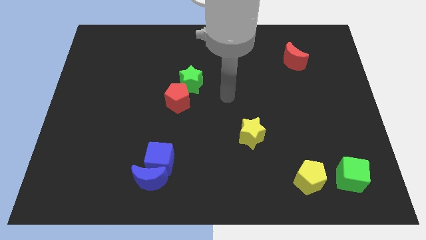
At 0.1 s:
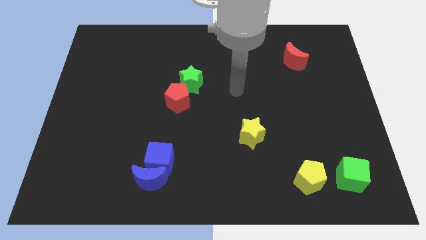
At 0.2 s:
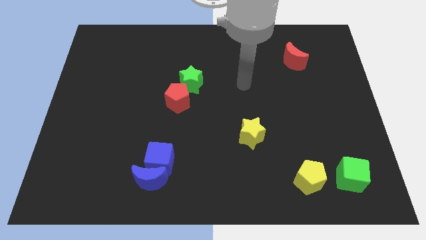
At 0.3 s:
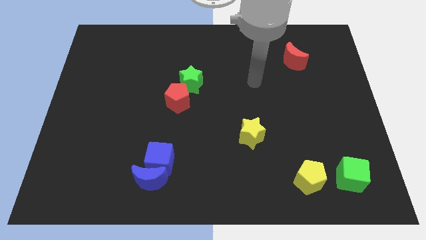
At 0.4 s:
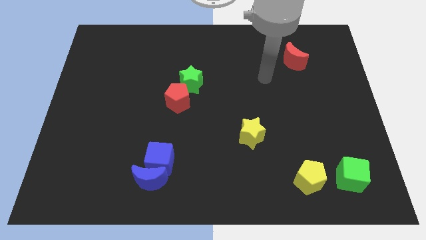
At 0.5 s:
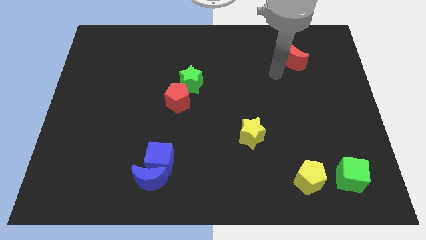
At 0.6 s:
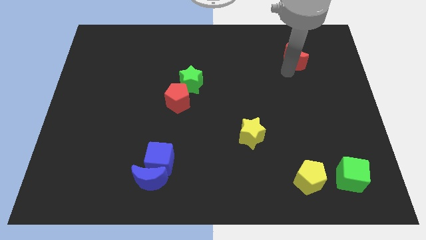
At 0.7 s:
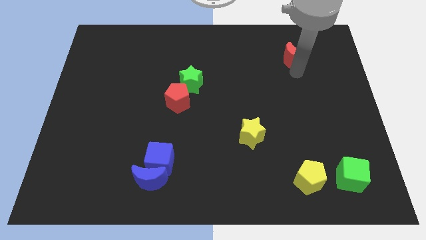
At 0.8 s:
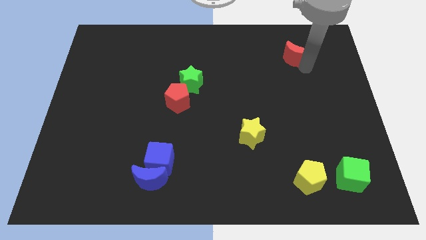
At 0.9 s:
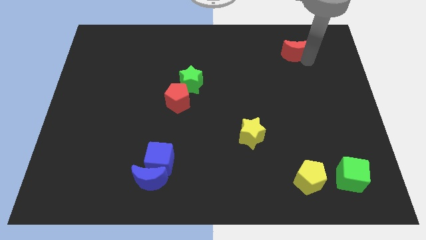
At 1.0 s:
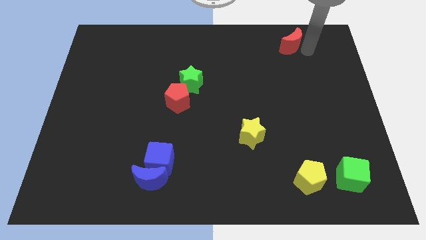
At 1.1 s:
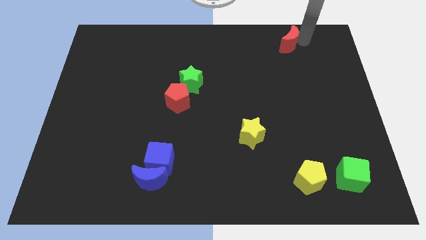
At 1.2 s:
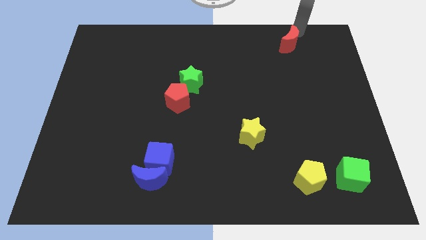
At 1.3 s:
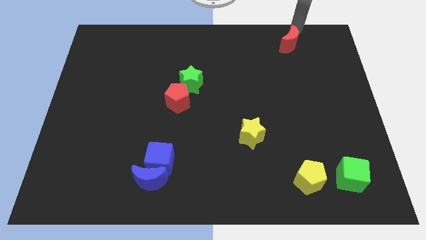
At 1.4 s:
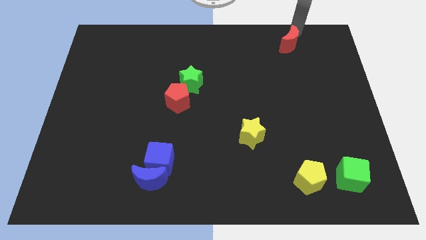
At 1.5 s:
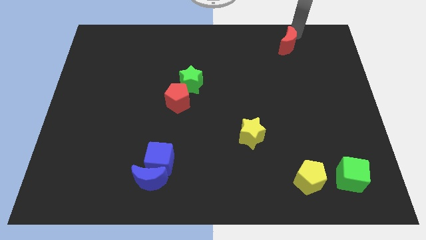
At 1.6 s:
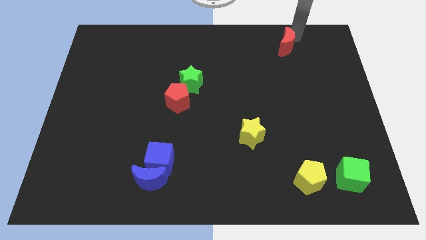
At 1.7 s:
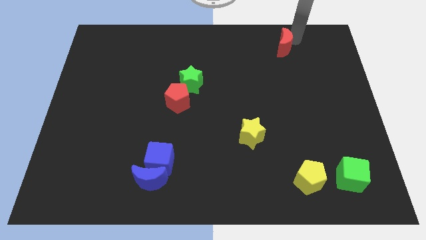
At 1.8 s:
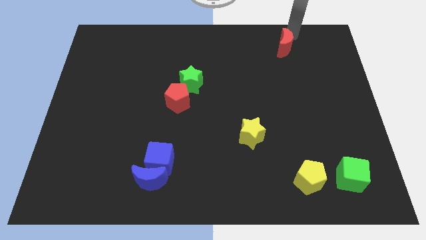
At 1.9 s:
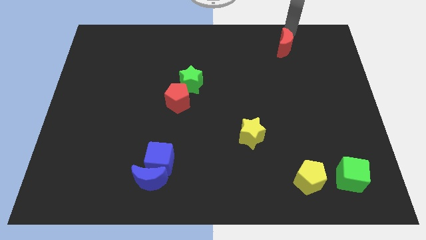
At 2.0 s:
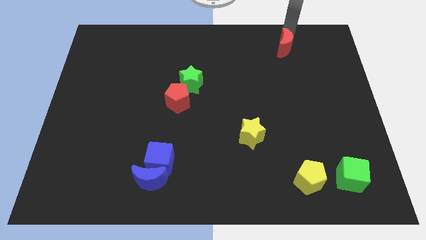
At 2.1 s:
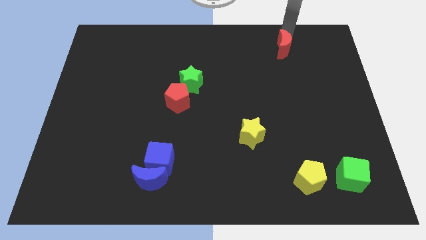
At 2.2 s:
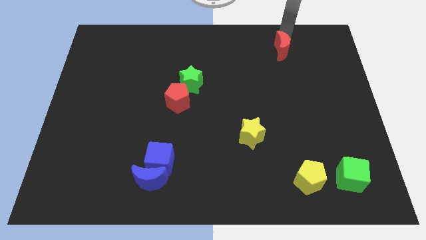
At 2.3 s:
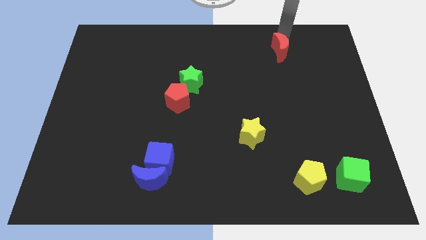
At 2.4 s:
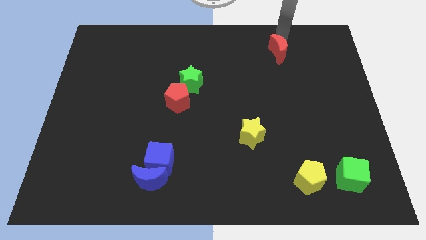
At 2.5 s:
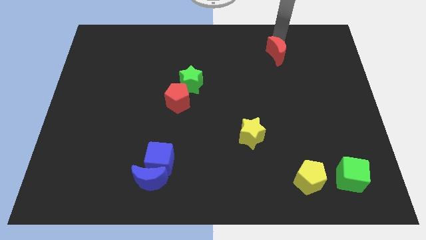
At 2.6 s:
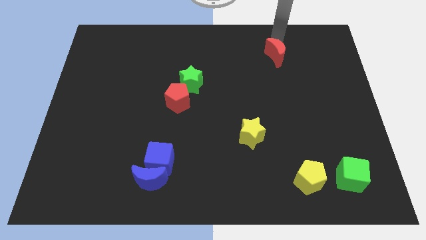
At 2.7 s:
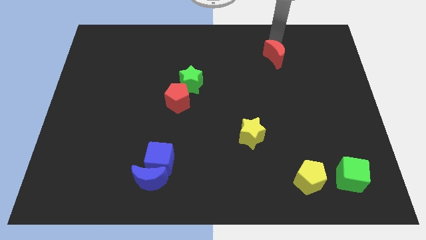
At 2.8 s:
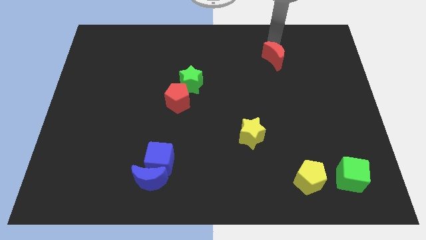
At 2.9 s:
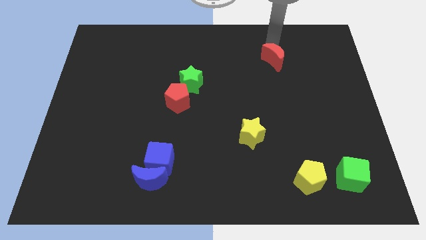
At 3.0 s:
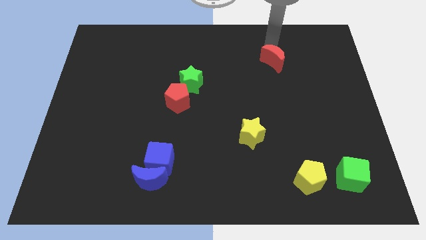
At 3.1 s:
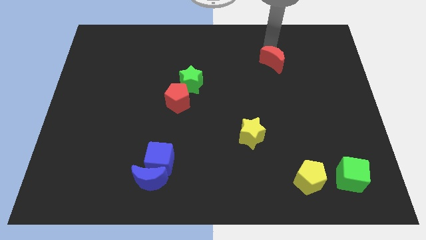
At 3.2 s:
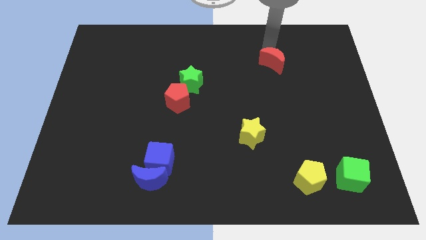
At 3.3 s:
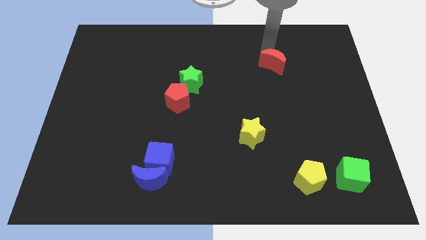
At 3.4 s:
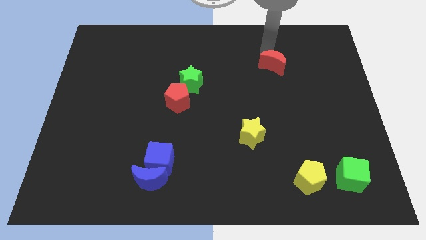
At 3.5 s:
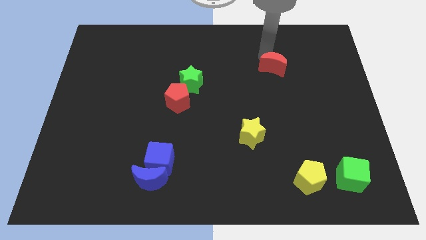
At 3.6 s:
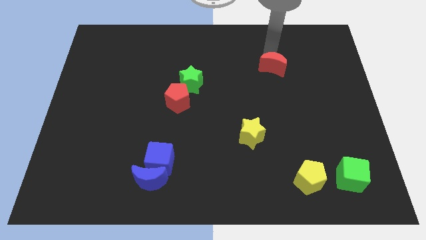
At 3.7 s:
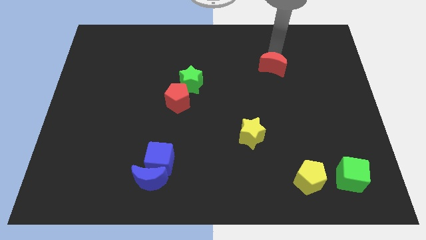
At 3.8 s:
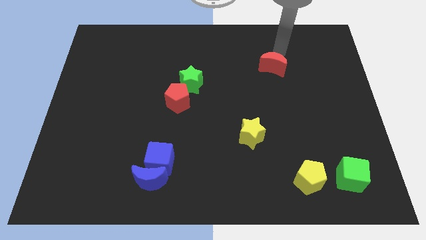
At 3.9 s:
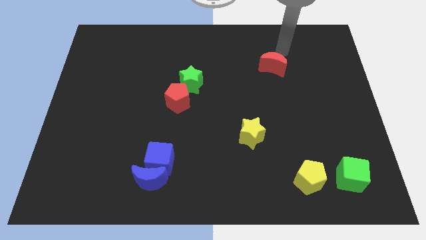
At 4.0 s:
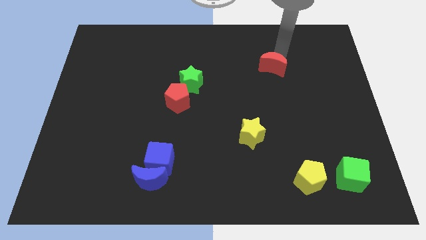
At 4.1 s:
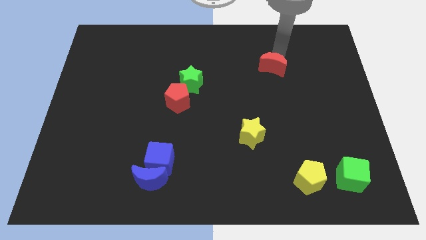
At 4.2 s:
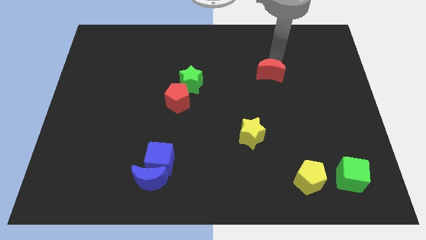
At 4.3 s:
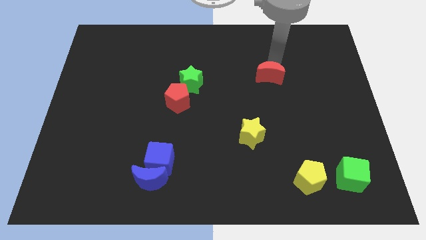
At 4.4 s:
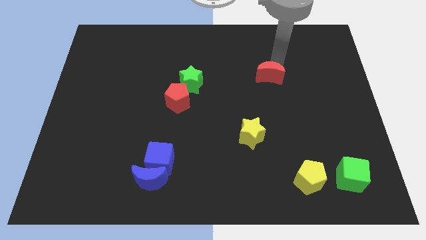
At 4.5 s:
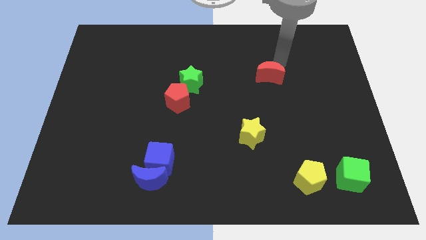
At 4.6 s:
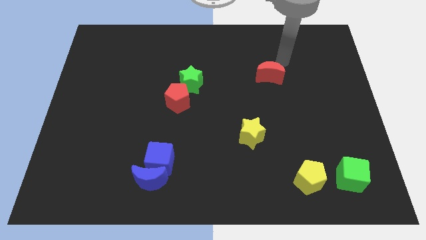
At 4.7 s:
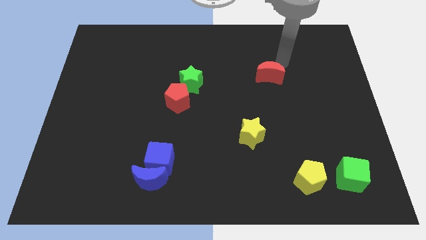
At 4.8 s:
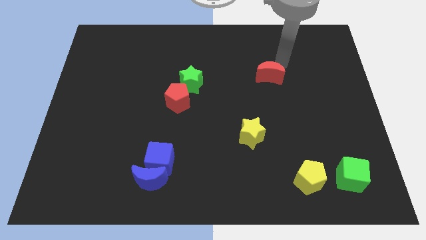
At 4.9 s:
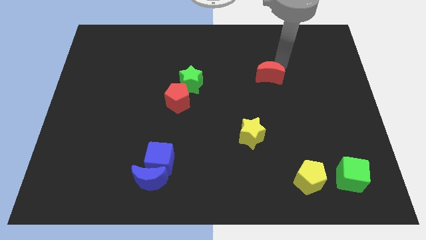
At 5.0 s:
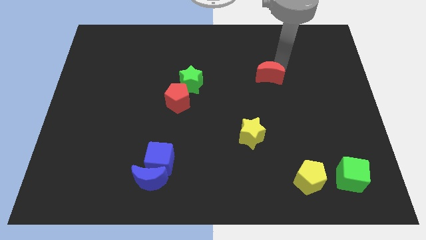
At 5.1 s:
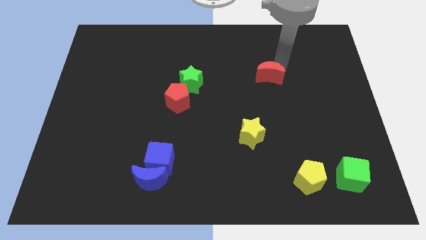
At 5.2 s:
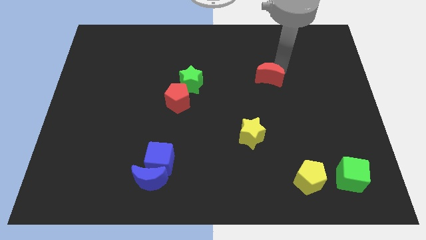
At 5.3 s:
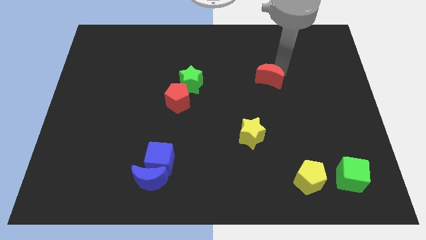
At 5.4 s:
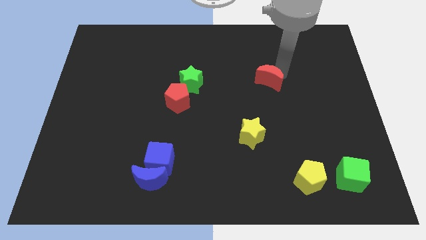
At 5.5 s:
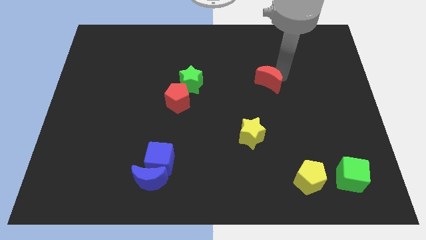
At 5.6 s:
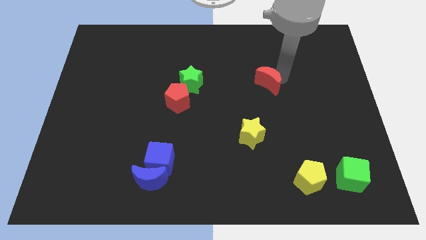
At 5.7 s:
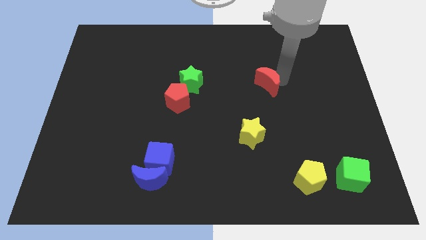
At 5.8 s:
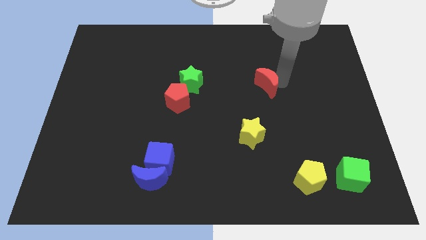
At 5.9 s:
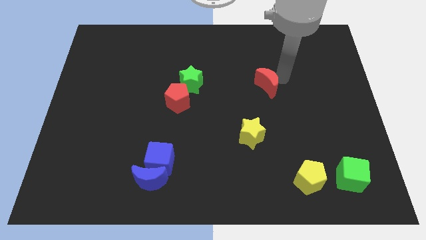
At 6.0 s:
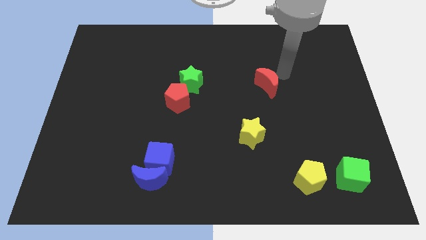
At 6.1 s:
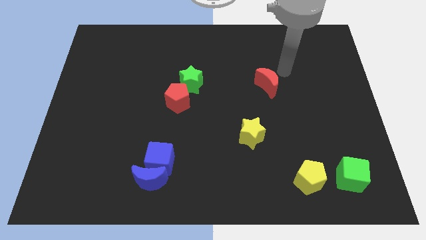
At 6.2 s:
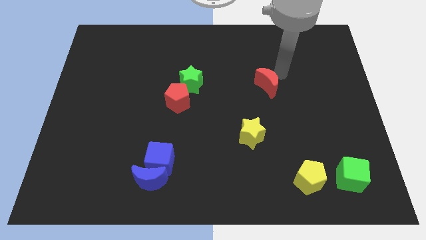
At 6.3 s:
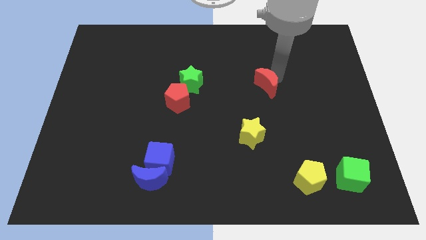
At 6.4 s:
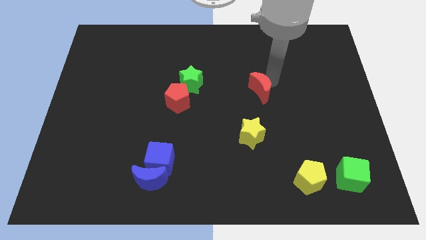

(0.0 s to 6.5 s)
move the red moon above the yellow star

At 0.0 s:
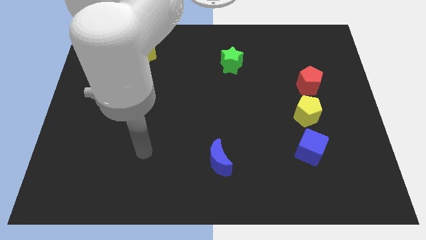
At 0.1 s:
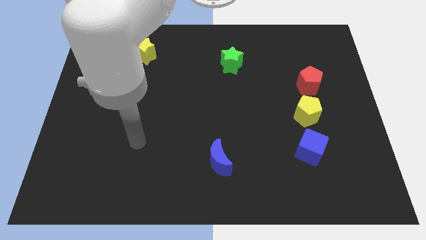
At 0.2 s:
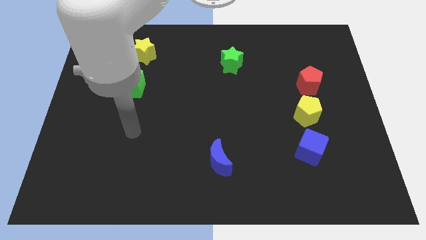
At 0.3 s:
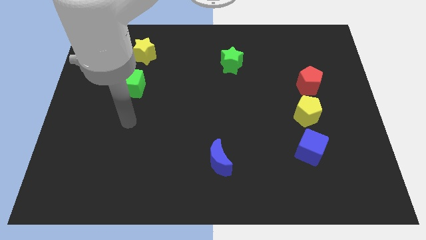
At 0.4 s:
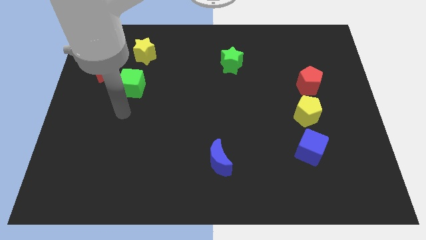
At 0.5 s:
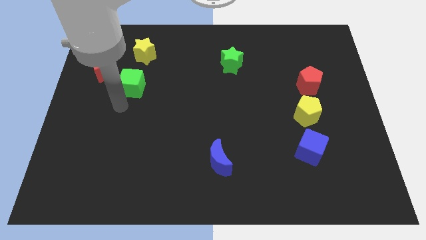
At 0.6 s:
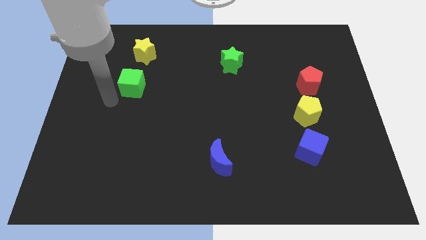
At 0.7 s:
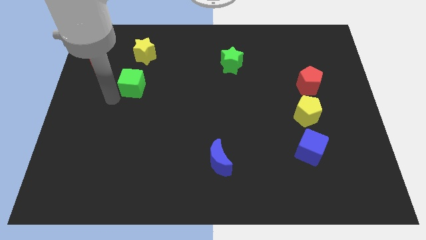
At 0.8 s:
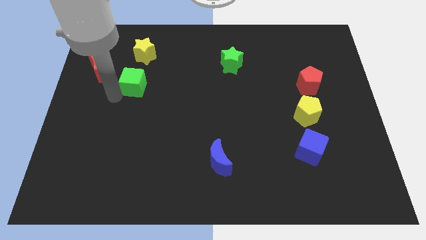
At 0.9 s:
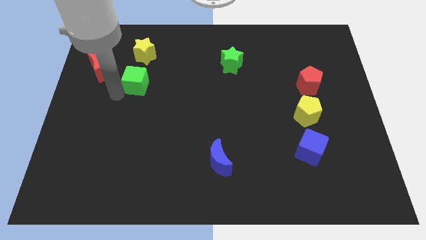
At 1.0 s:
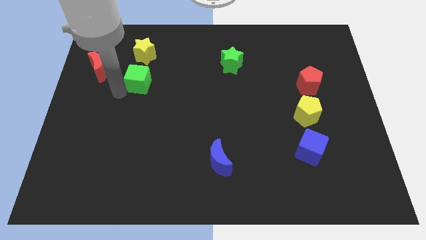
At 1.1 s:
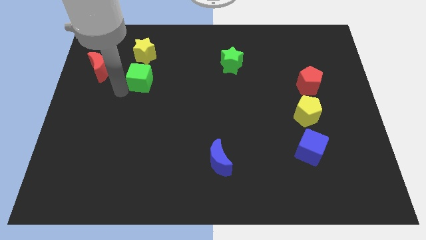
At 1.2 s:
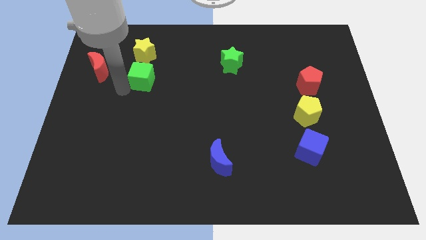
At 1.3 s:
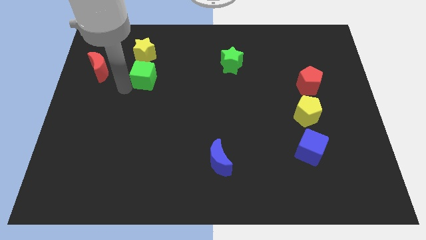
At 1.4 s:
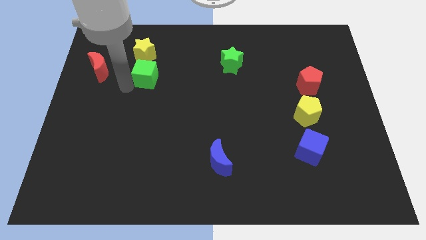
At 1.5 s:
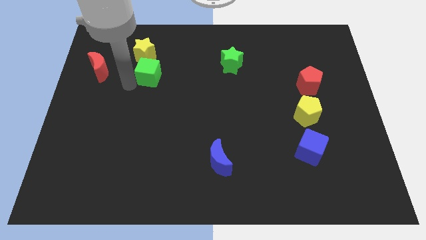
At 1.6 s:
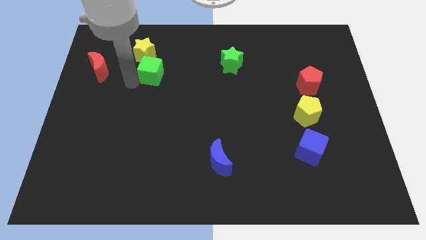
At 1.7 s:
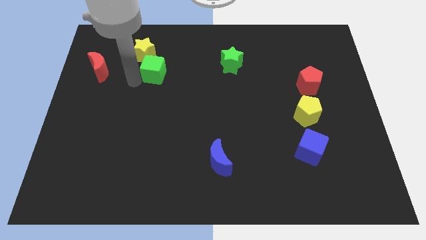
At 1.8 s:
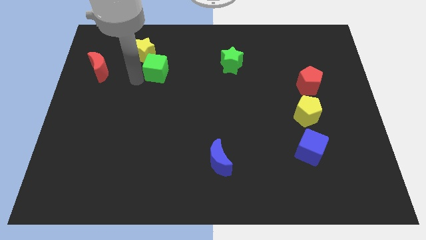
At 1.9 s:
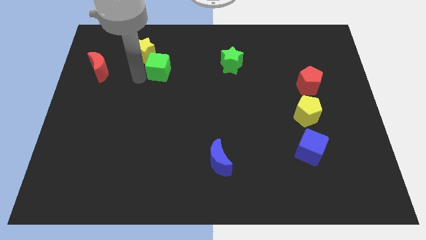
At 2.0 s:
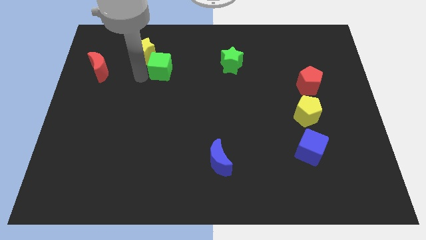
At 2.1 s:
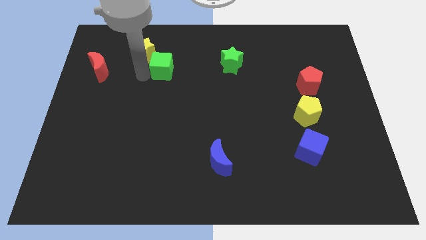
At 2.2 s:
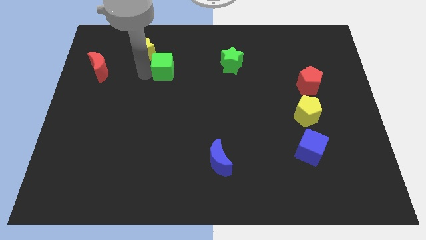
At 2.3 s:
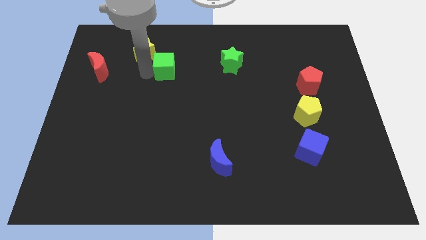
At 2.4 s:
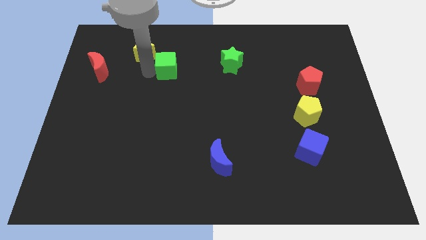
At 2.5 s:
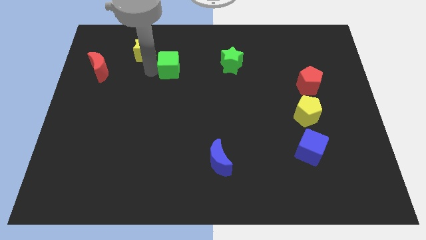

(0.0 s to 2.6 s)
move the green cube to the right of the yellow star
